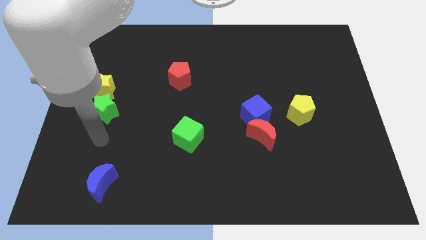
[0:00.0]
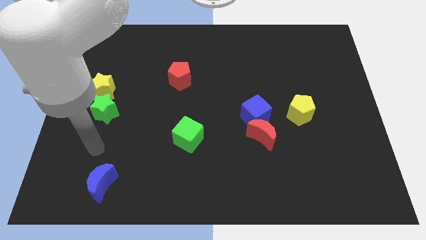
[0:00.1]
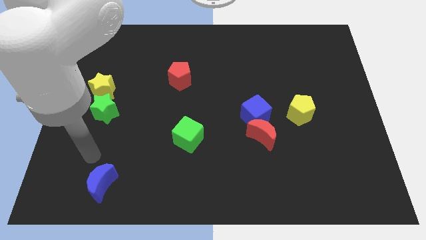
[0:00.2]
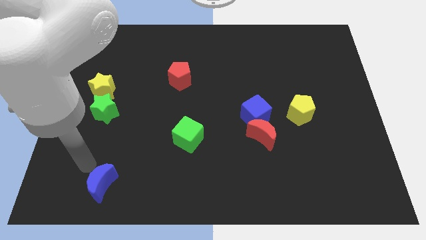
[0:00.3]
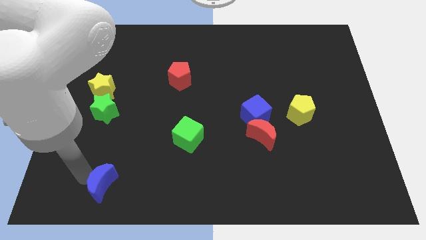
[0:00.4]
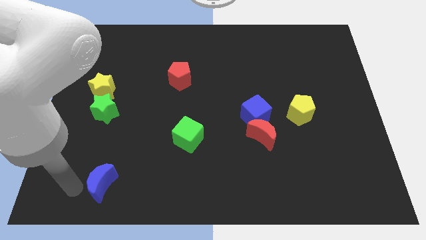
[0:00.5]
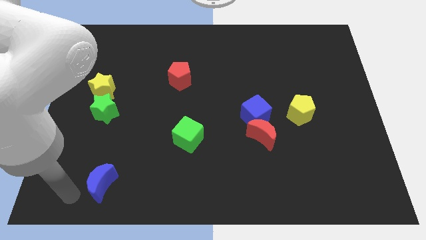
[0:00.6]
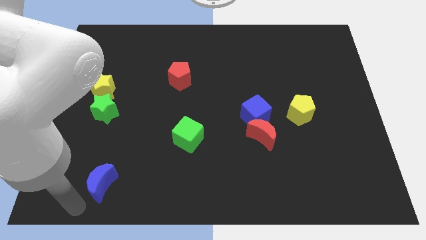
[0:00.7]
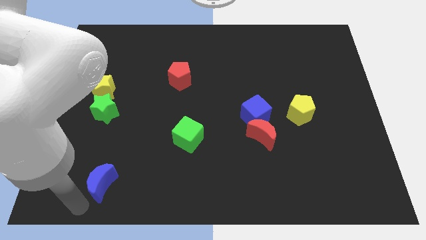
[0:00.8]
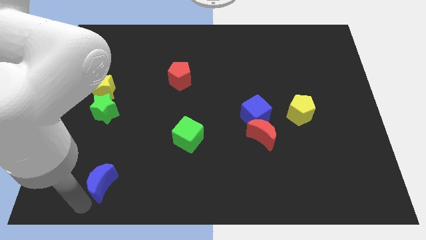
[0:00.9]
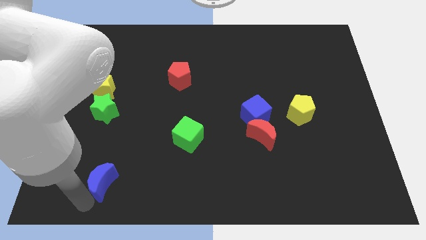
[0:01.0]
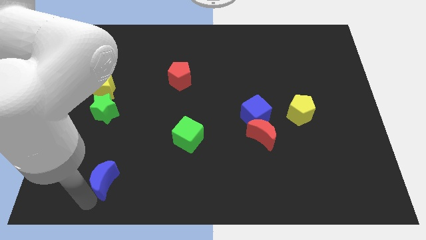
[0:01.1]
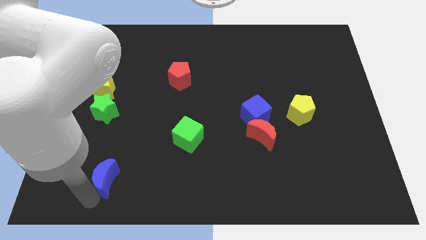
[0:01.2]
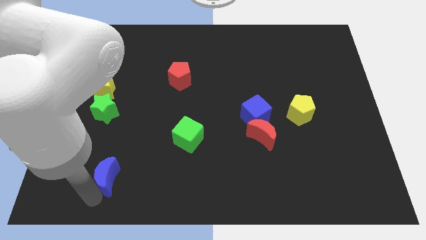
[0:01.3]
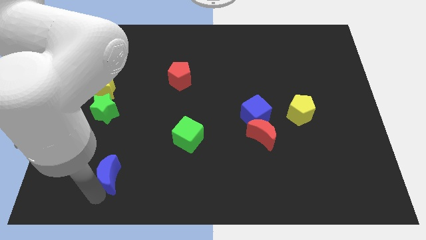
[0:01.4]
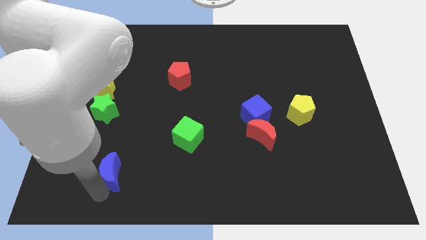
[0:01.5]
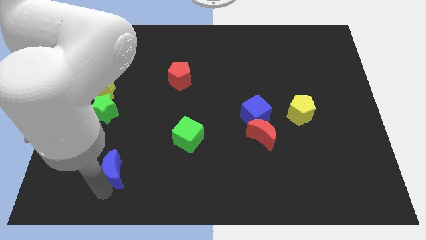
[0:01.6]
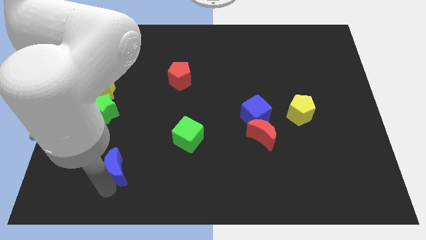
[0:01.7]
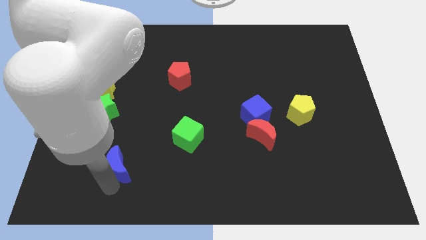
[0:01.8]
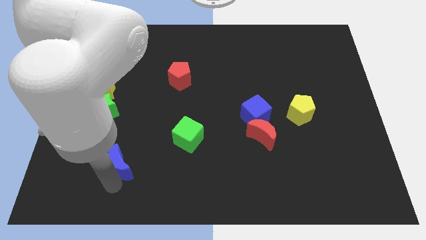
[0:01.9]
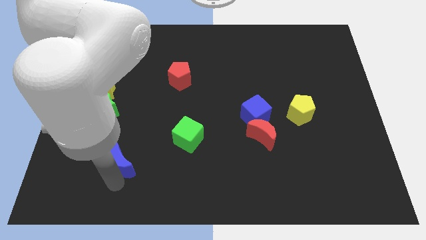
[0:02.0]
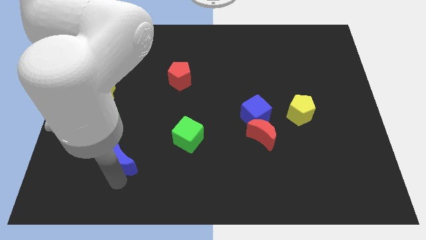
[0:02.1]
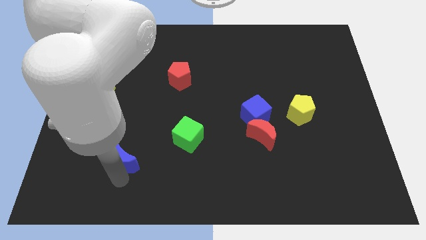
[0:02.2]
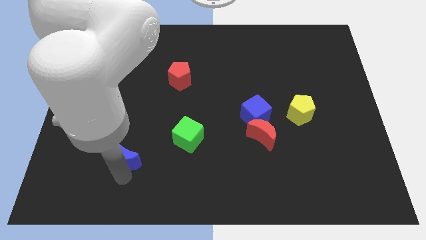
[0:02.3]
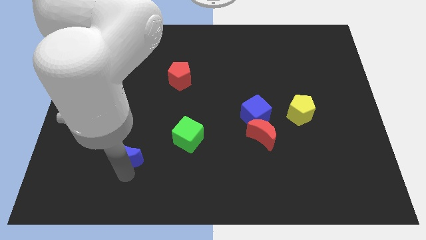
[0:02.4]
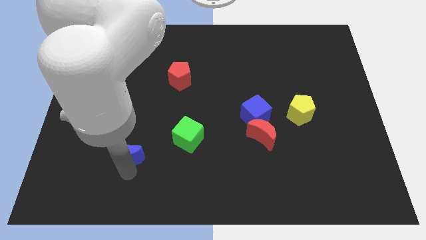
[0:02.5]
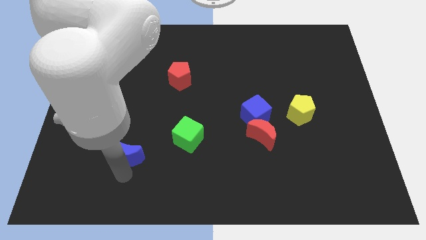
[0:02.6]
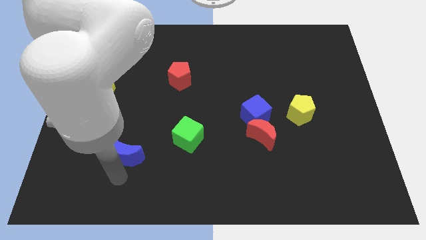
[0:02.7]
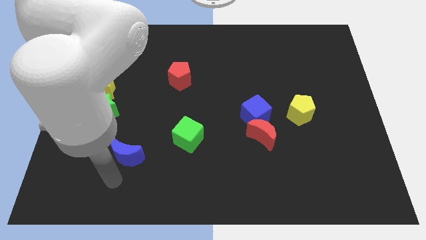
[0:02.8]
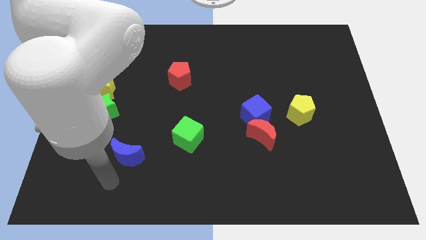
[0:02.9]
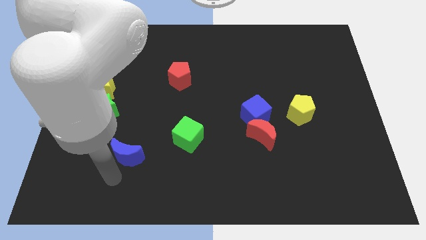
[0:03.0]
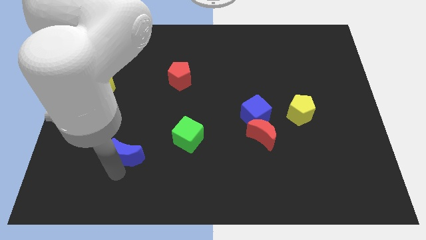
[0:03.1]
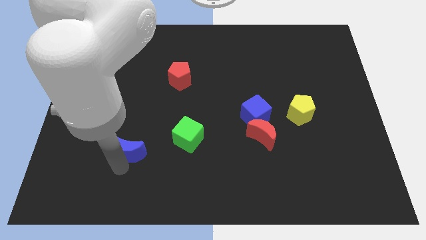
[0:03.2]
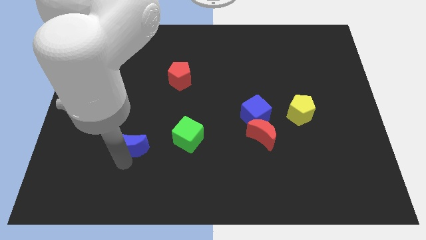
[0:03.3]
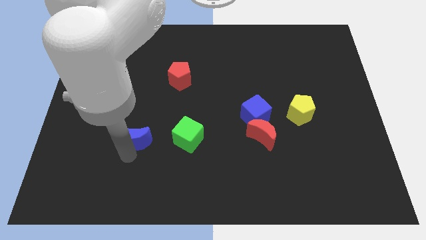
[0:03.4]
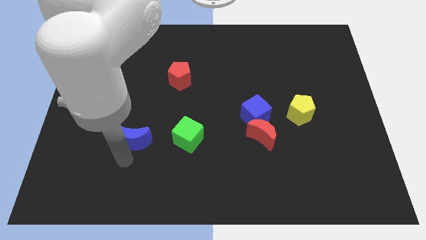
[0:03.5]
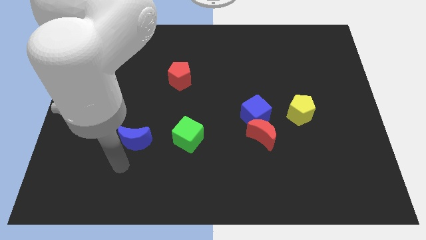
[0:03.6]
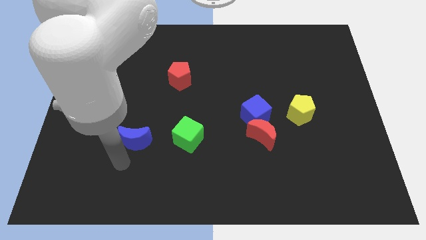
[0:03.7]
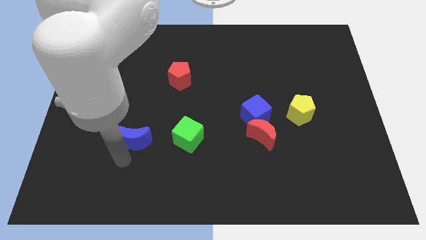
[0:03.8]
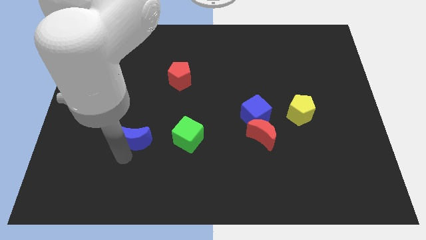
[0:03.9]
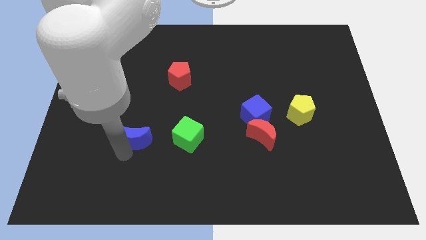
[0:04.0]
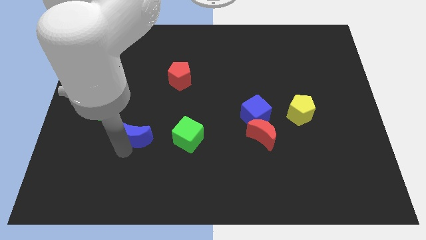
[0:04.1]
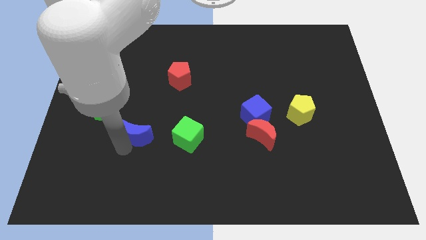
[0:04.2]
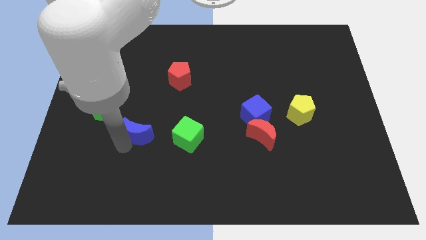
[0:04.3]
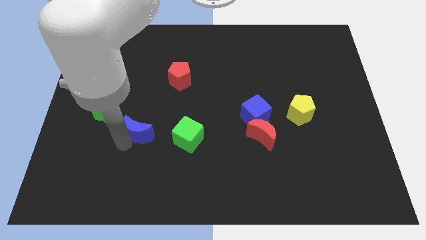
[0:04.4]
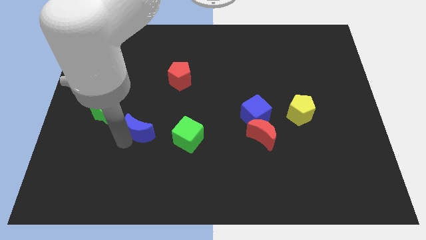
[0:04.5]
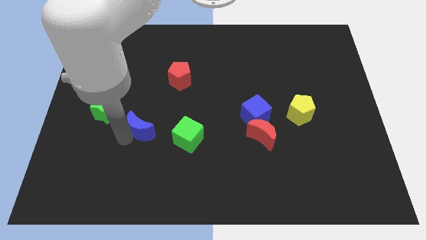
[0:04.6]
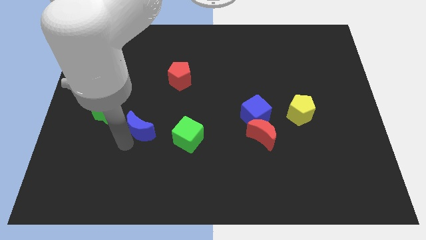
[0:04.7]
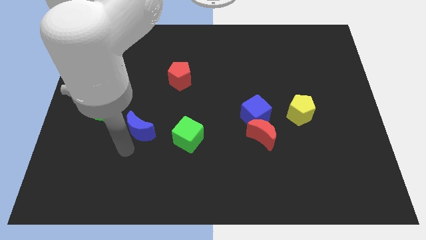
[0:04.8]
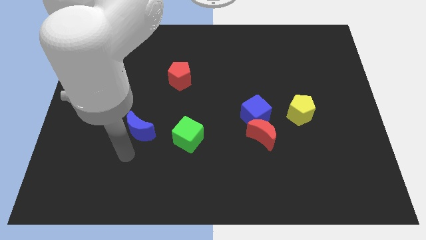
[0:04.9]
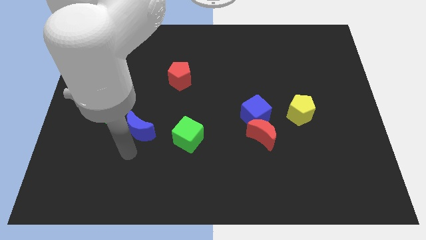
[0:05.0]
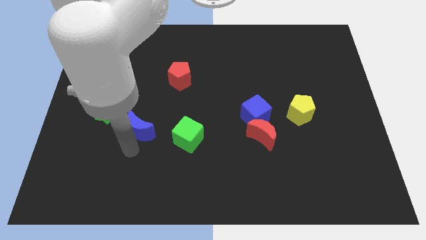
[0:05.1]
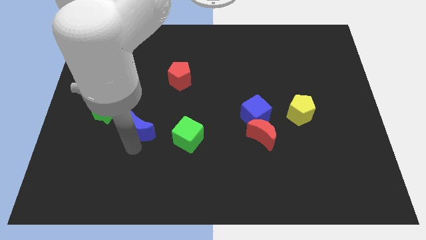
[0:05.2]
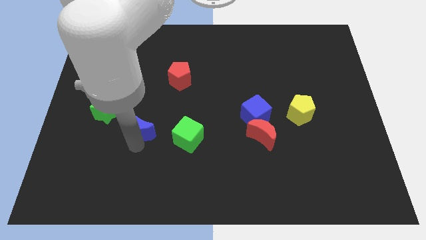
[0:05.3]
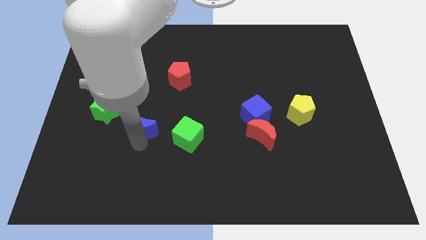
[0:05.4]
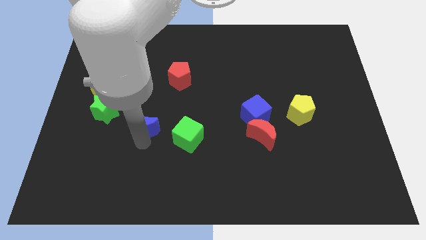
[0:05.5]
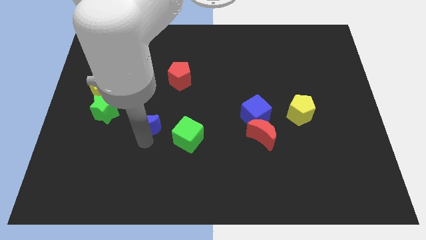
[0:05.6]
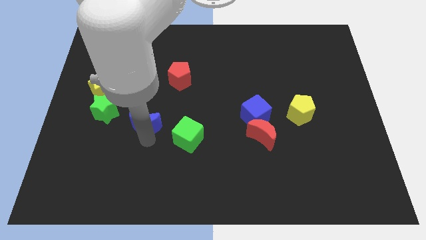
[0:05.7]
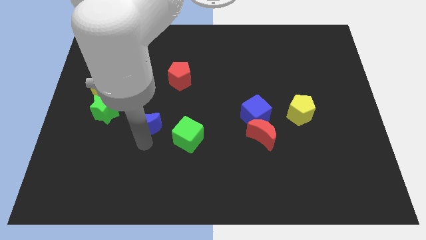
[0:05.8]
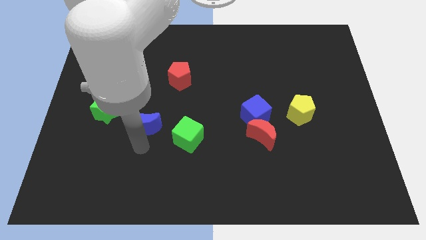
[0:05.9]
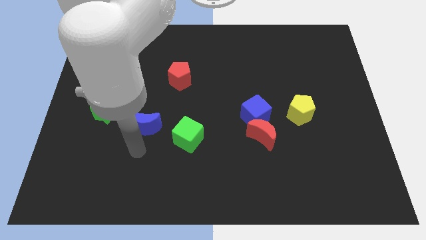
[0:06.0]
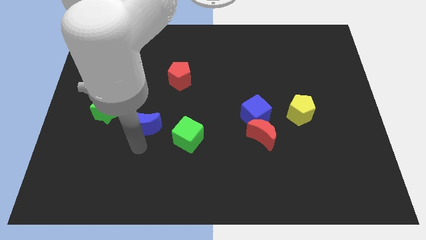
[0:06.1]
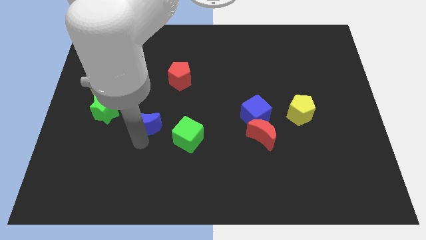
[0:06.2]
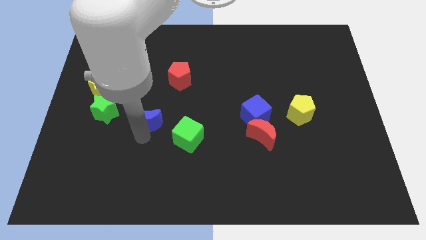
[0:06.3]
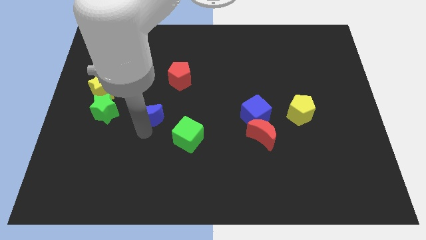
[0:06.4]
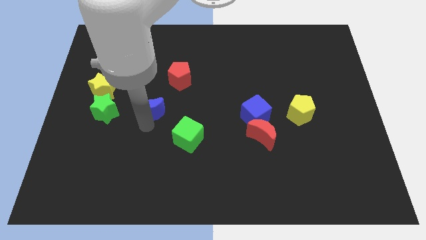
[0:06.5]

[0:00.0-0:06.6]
slide the blue moon diagonally down and to the left of the red pentagon

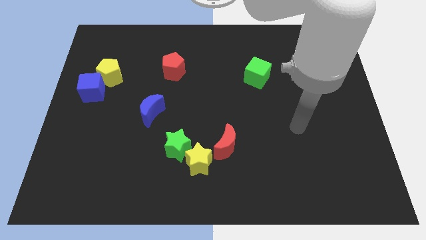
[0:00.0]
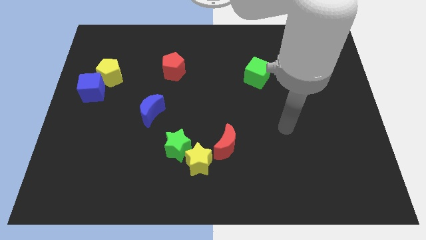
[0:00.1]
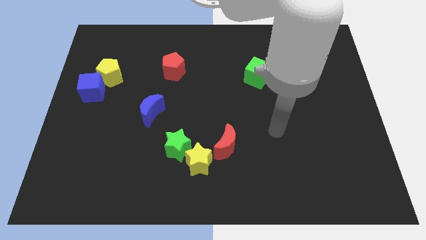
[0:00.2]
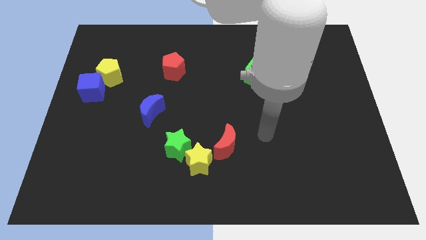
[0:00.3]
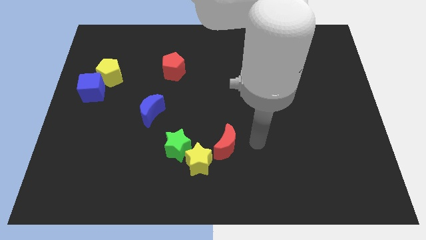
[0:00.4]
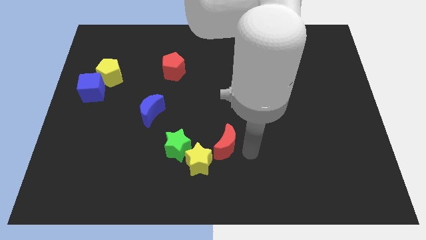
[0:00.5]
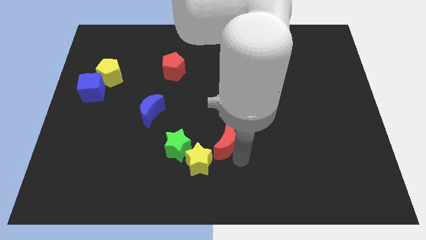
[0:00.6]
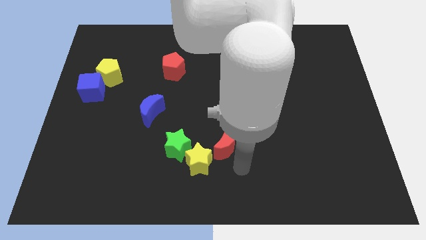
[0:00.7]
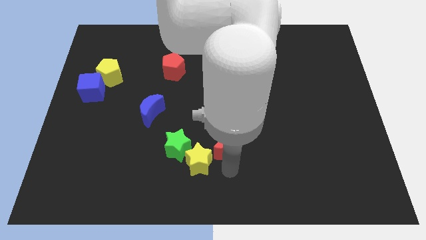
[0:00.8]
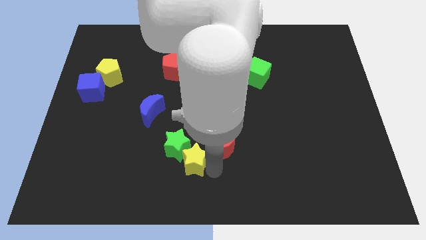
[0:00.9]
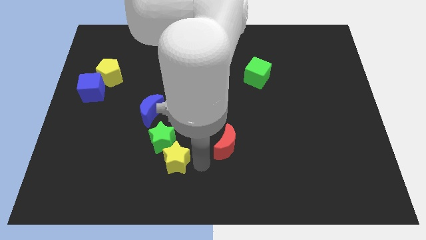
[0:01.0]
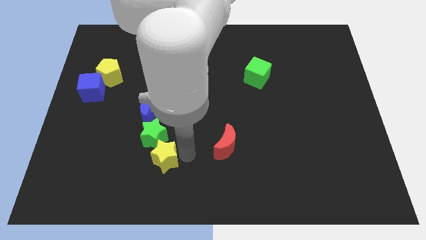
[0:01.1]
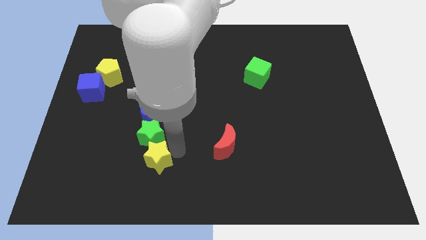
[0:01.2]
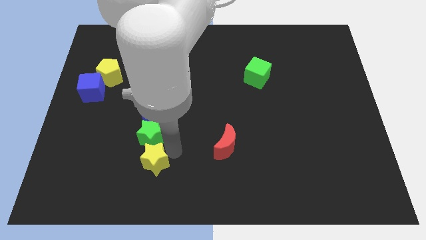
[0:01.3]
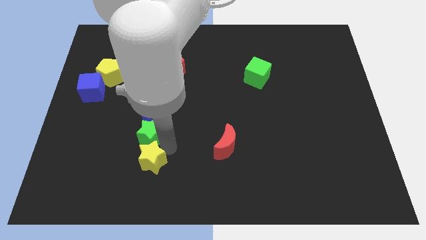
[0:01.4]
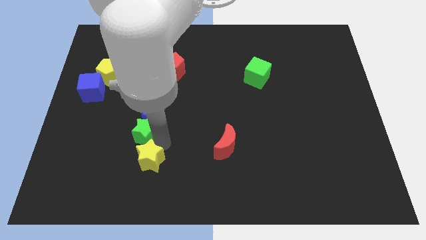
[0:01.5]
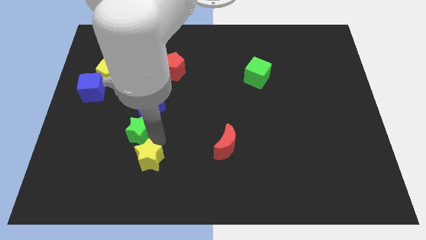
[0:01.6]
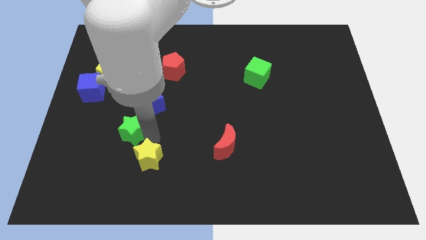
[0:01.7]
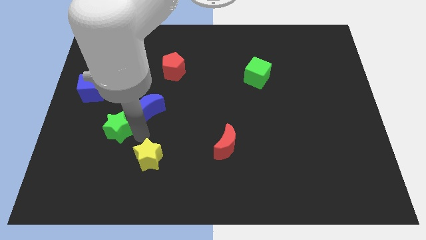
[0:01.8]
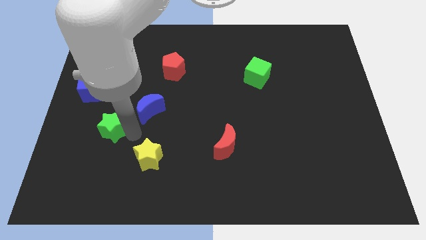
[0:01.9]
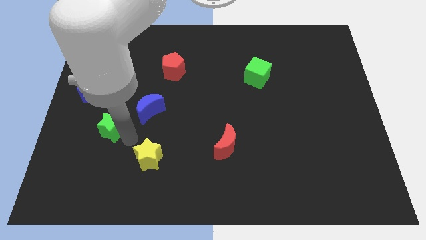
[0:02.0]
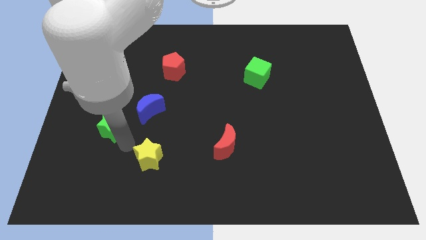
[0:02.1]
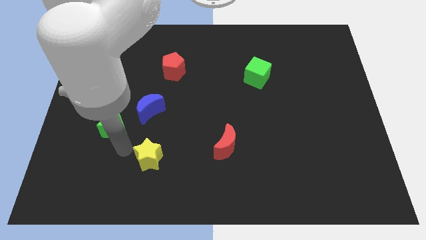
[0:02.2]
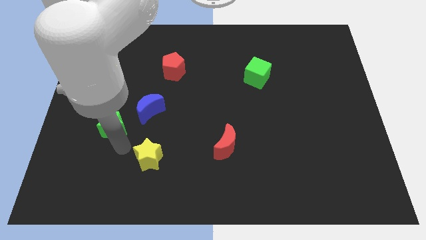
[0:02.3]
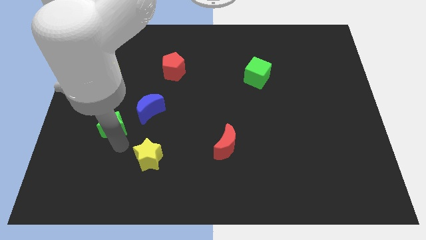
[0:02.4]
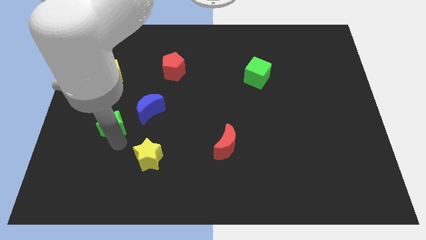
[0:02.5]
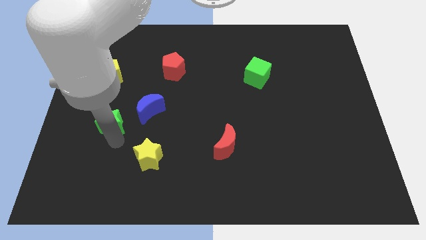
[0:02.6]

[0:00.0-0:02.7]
push the green star to the bottom of the yellow pentagon
